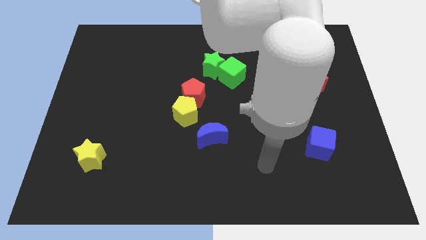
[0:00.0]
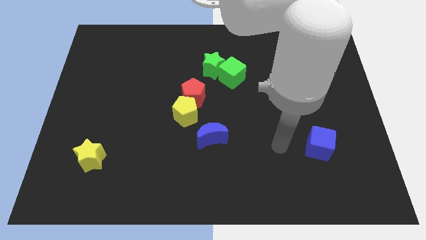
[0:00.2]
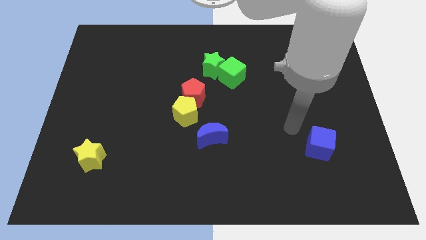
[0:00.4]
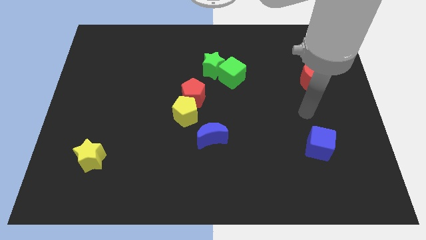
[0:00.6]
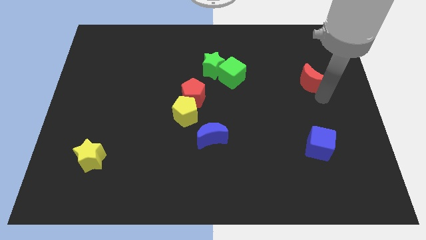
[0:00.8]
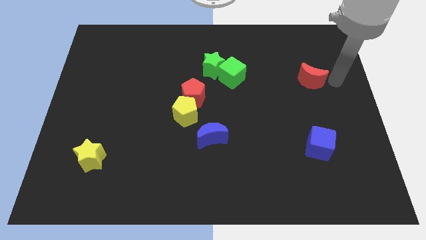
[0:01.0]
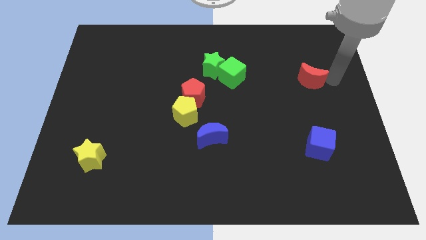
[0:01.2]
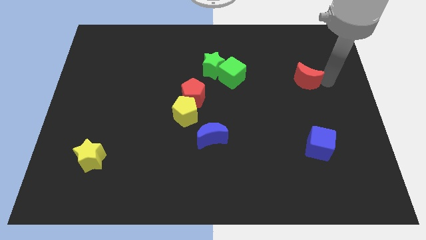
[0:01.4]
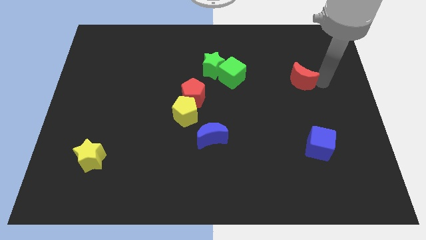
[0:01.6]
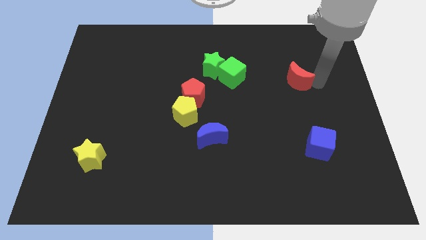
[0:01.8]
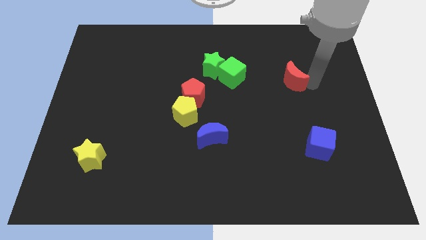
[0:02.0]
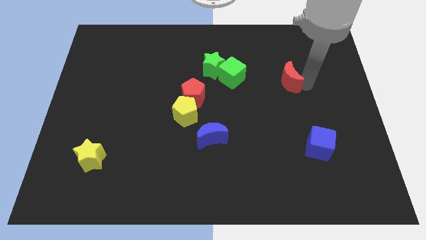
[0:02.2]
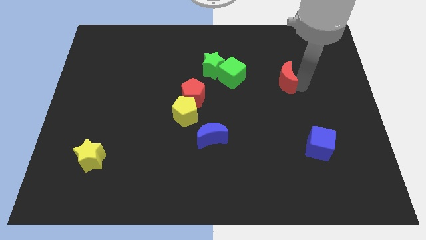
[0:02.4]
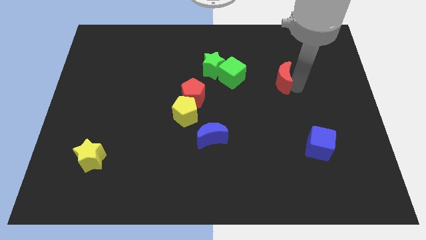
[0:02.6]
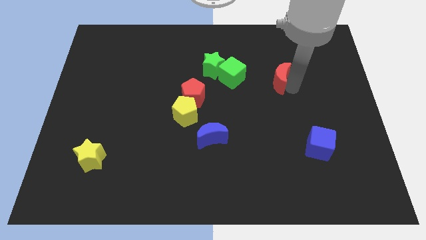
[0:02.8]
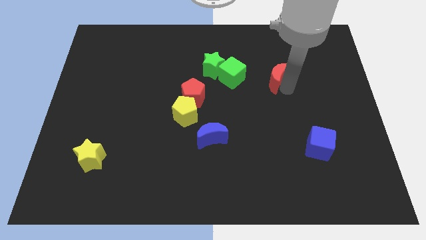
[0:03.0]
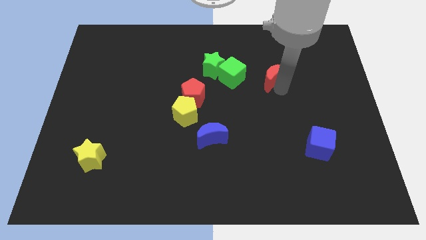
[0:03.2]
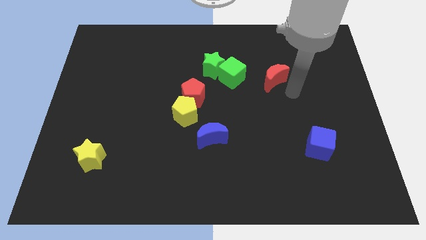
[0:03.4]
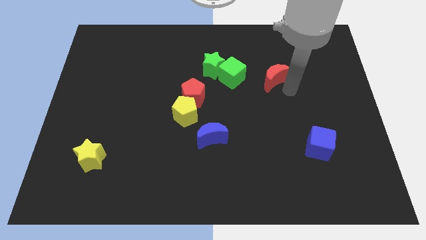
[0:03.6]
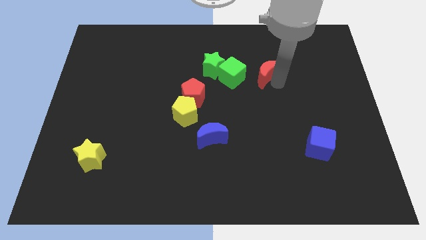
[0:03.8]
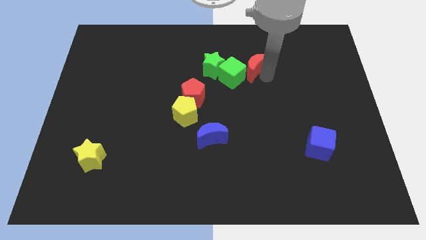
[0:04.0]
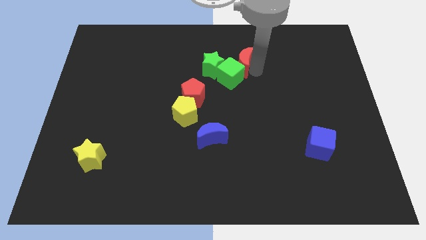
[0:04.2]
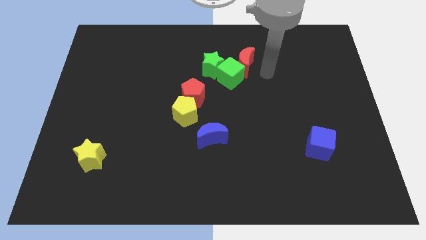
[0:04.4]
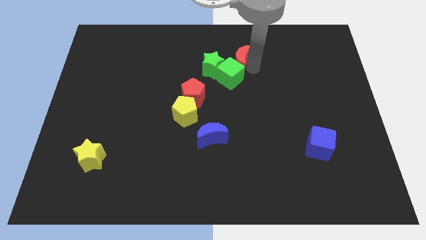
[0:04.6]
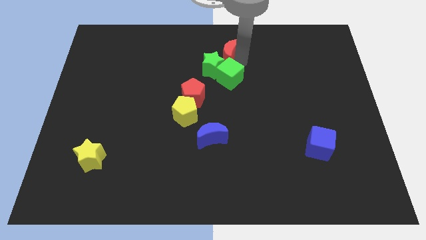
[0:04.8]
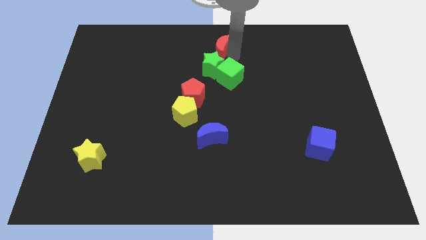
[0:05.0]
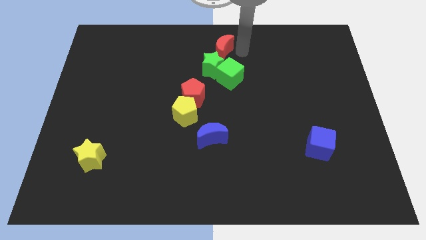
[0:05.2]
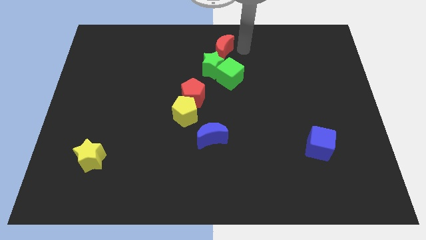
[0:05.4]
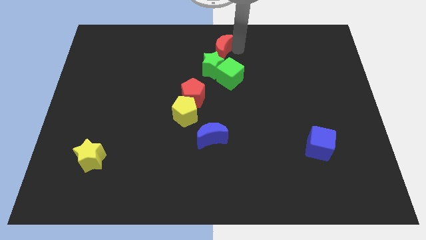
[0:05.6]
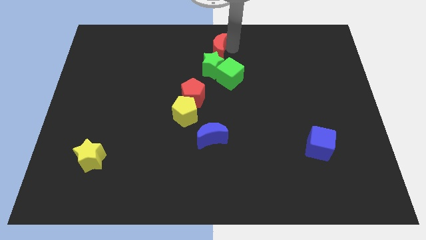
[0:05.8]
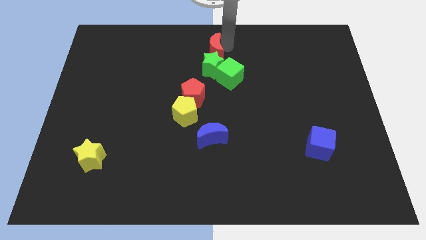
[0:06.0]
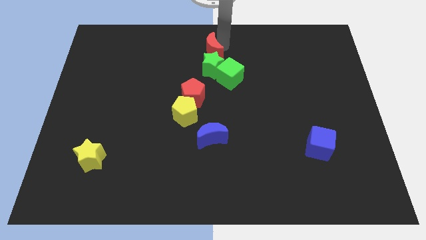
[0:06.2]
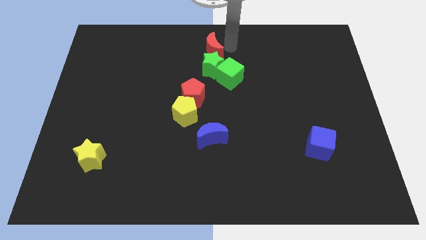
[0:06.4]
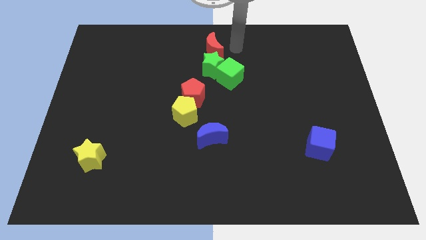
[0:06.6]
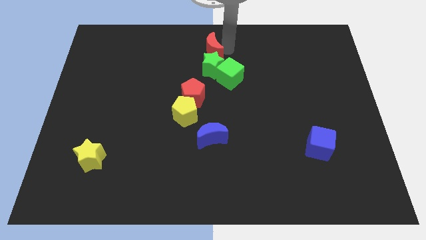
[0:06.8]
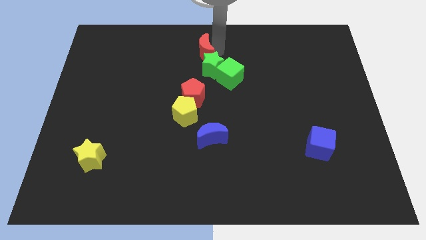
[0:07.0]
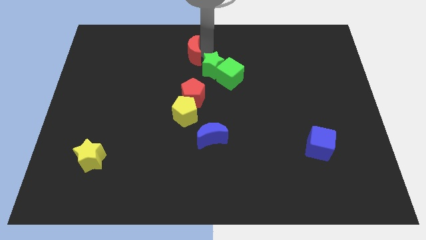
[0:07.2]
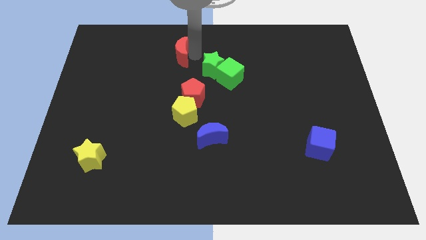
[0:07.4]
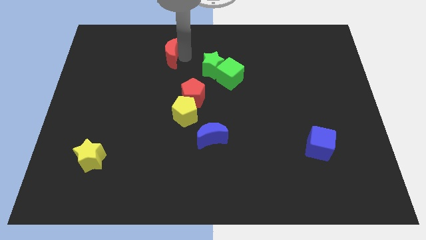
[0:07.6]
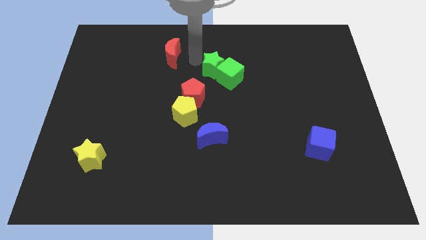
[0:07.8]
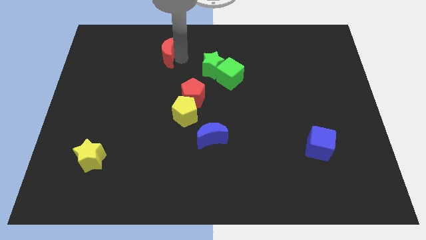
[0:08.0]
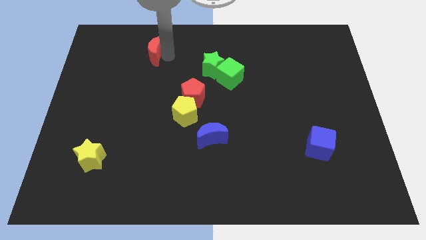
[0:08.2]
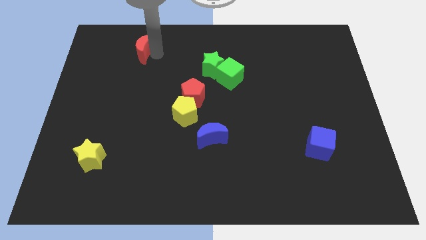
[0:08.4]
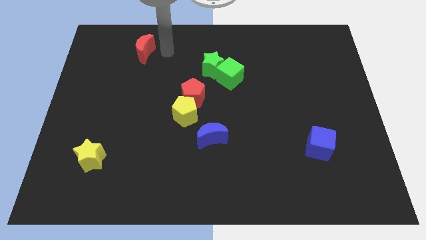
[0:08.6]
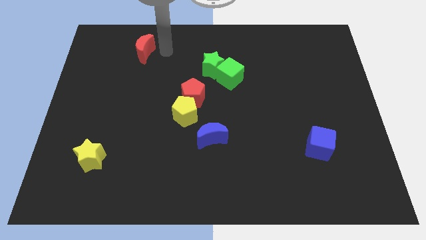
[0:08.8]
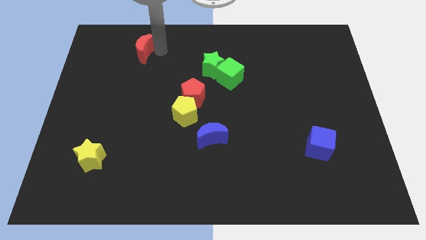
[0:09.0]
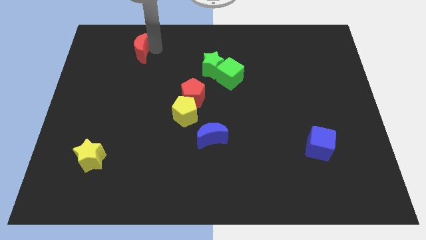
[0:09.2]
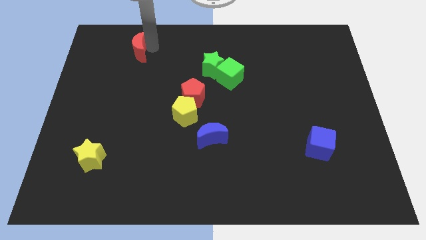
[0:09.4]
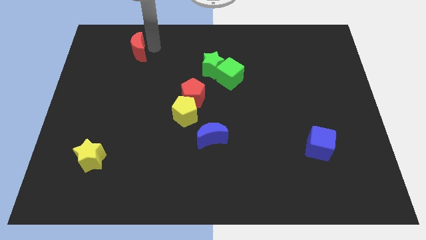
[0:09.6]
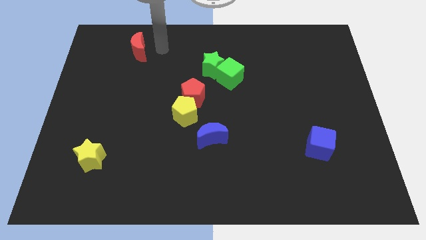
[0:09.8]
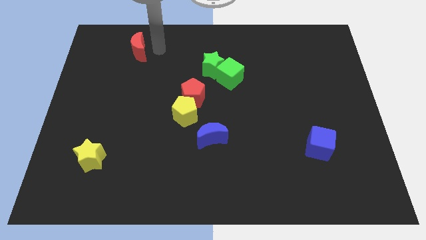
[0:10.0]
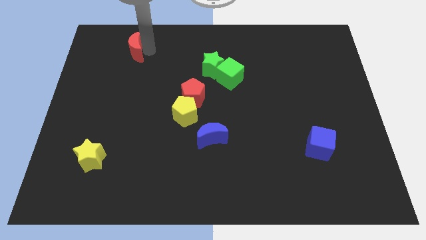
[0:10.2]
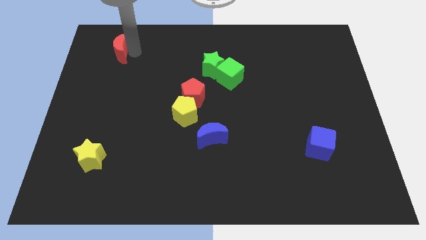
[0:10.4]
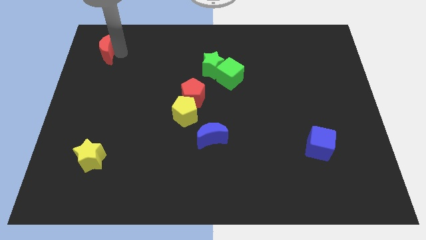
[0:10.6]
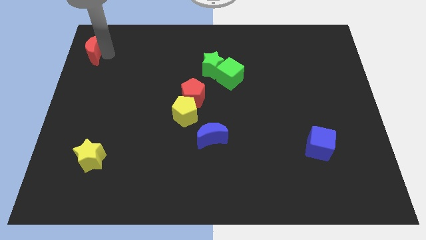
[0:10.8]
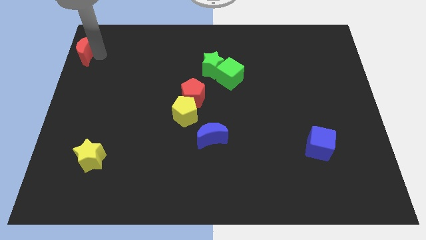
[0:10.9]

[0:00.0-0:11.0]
move the red moon to the top left

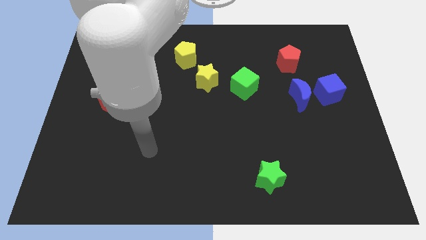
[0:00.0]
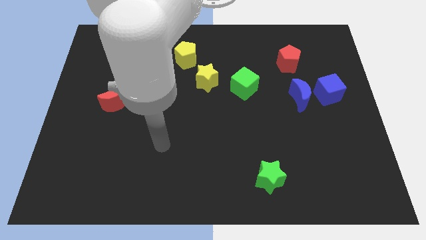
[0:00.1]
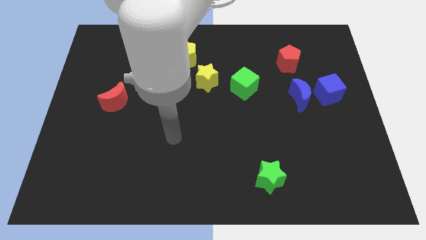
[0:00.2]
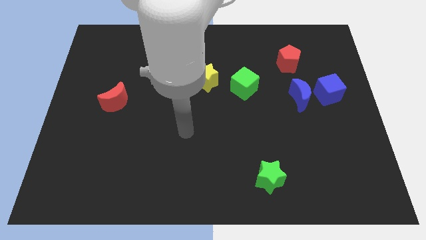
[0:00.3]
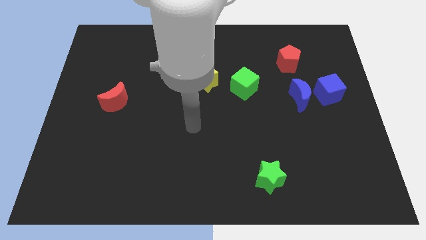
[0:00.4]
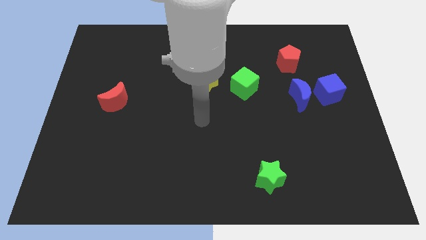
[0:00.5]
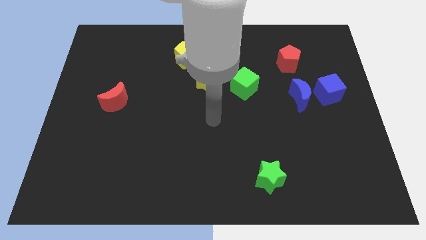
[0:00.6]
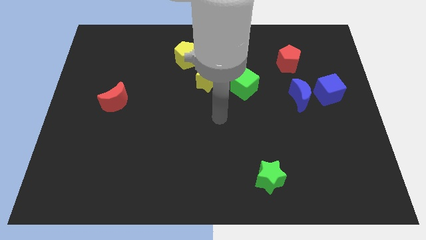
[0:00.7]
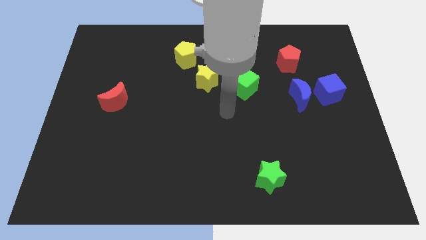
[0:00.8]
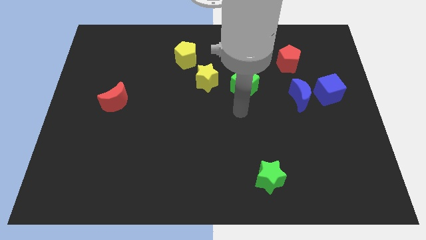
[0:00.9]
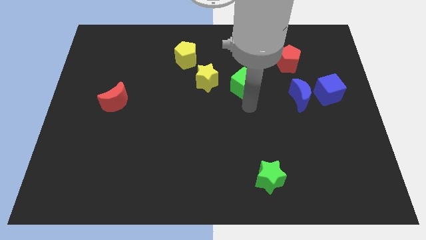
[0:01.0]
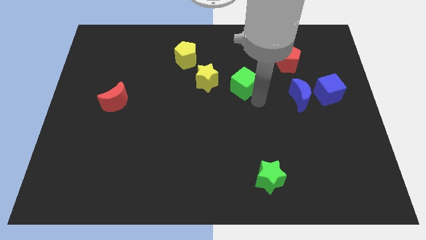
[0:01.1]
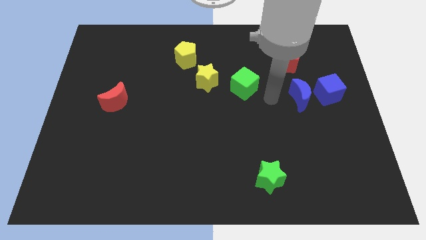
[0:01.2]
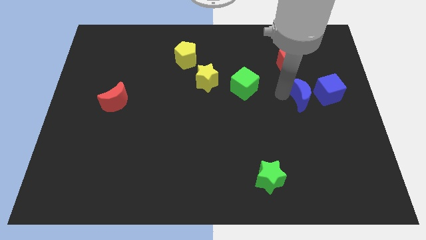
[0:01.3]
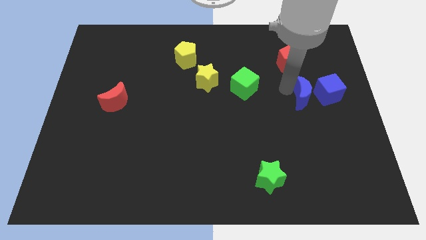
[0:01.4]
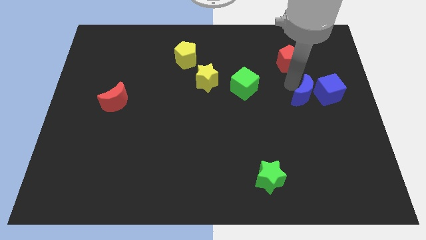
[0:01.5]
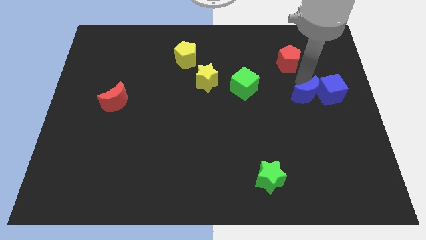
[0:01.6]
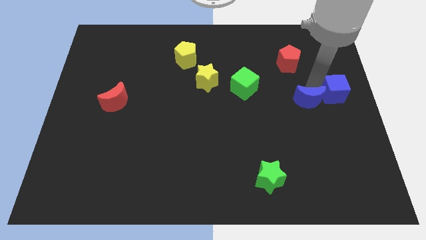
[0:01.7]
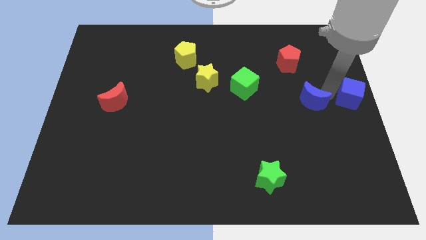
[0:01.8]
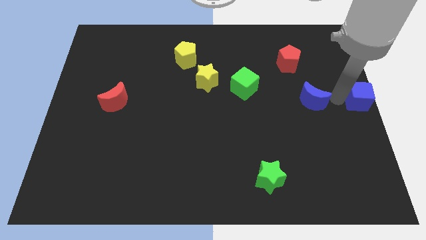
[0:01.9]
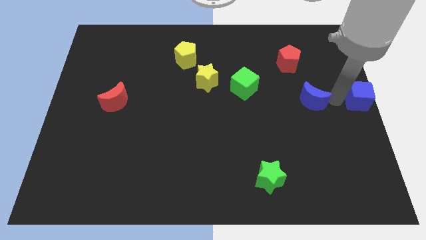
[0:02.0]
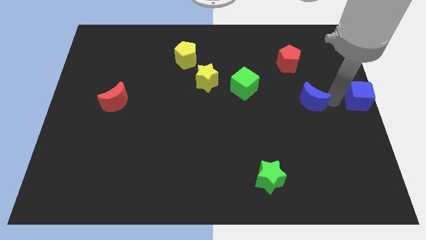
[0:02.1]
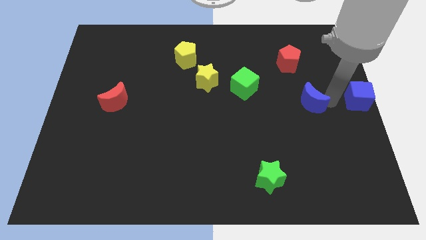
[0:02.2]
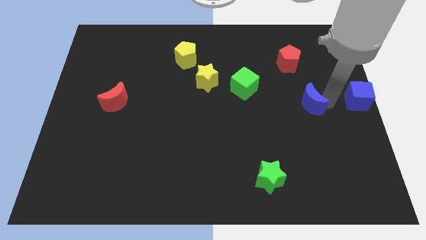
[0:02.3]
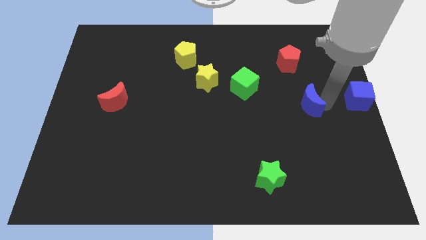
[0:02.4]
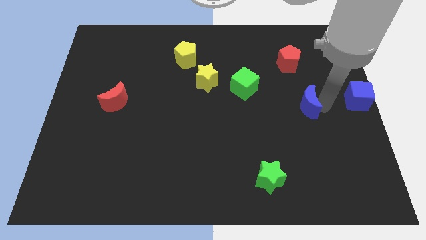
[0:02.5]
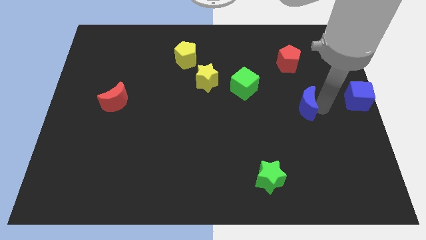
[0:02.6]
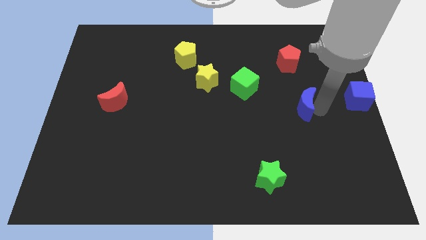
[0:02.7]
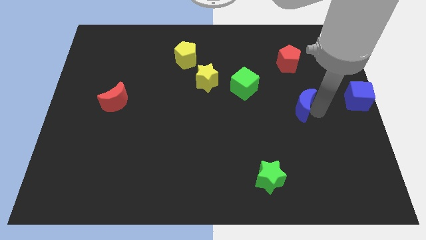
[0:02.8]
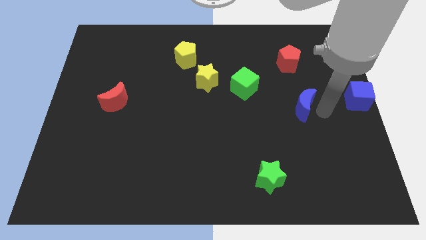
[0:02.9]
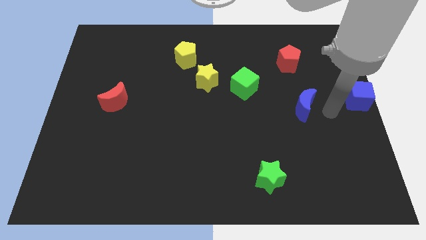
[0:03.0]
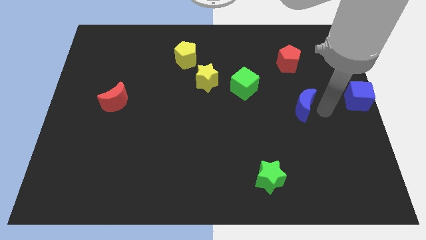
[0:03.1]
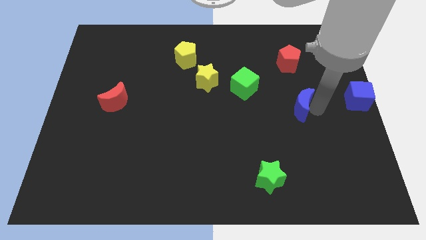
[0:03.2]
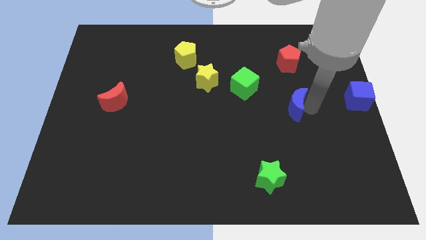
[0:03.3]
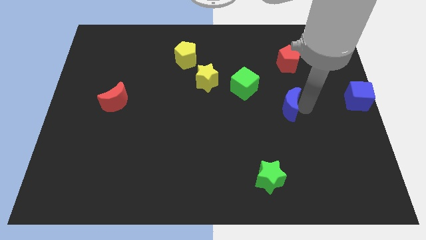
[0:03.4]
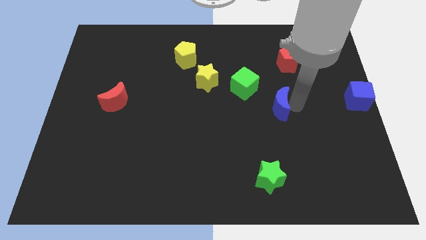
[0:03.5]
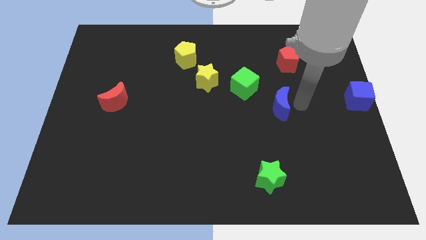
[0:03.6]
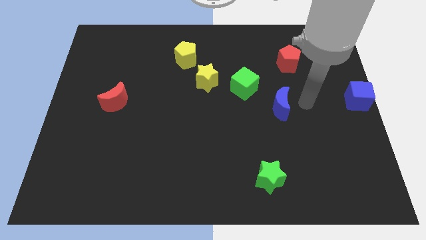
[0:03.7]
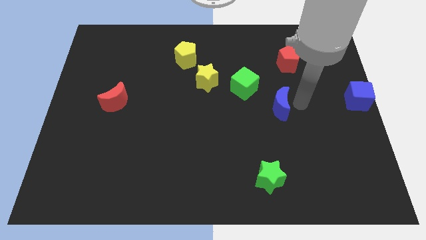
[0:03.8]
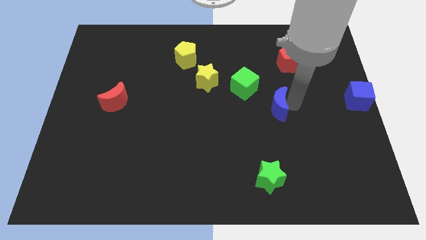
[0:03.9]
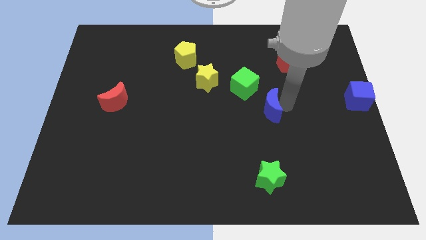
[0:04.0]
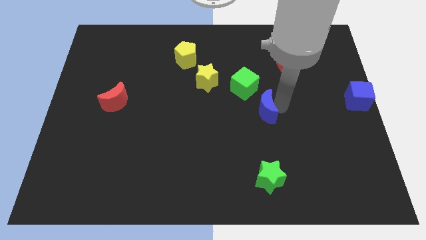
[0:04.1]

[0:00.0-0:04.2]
move the blue moon to the center of the board
